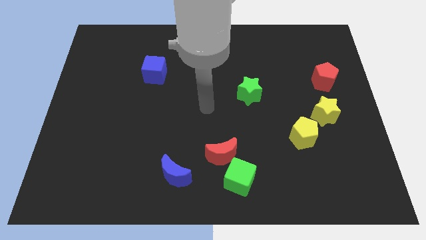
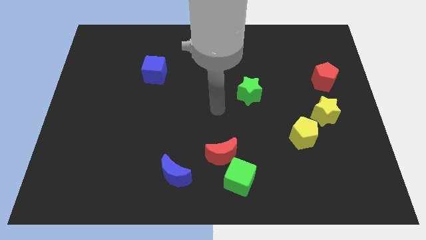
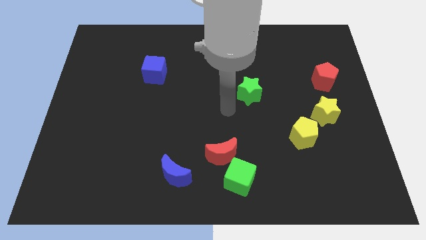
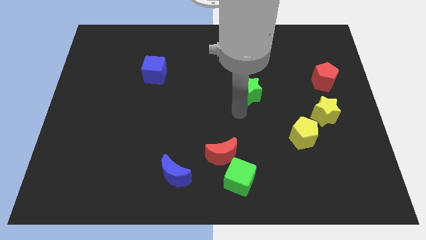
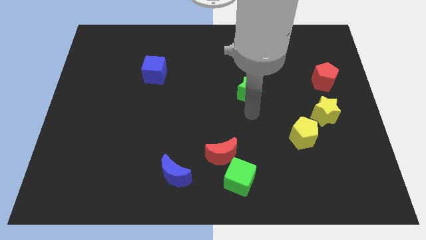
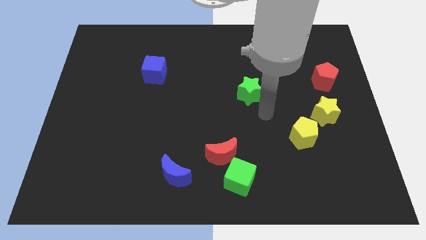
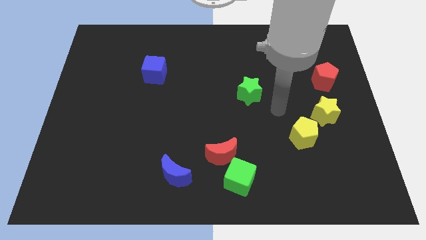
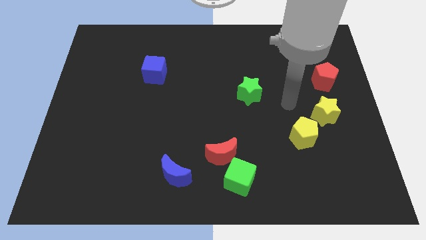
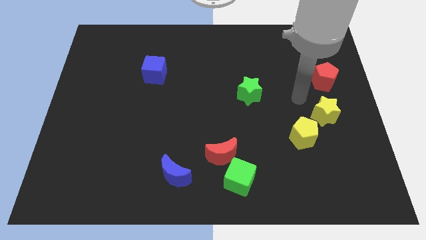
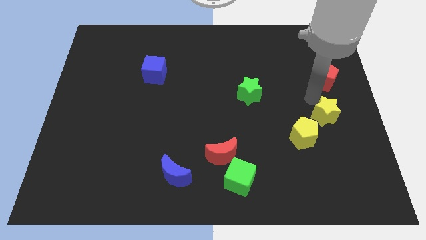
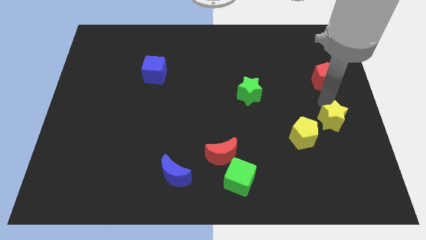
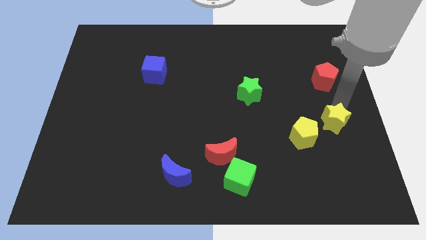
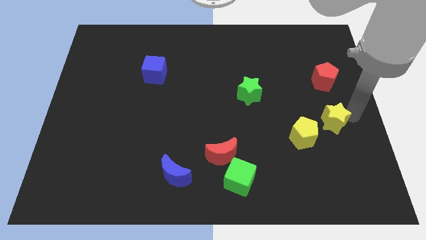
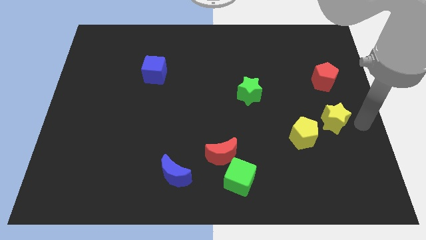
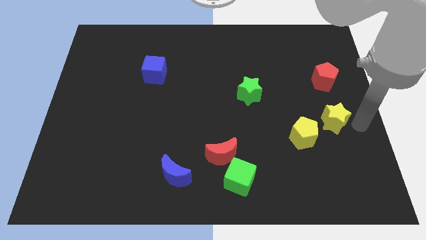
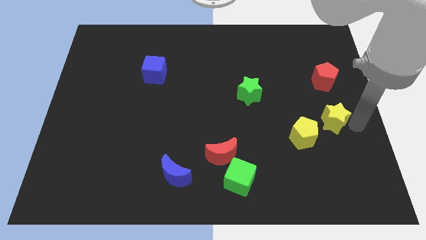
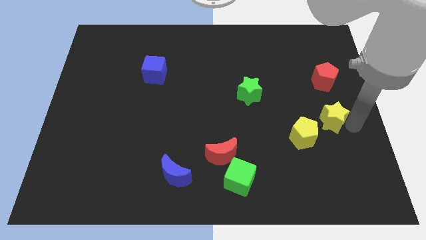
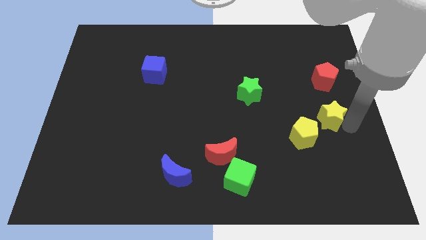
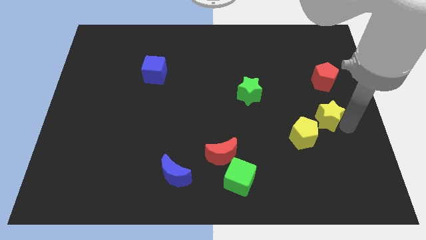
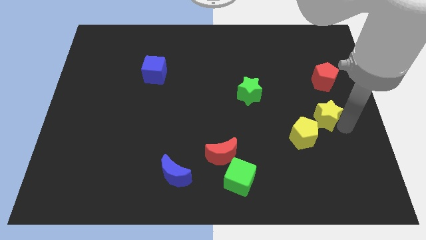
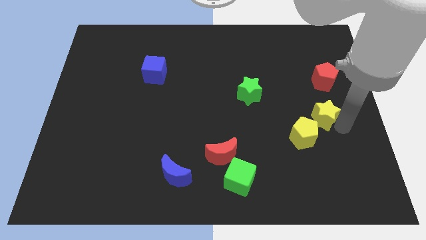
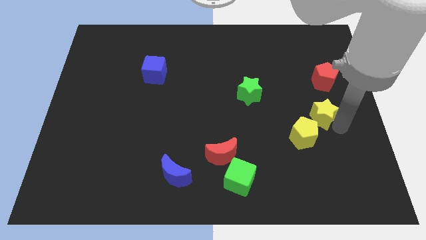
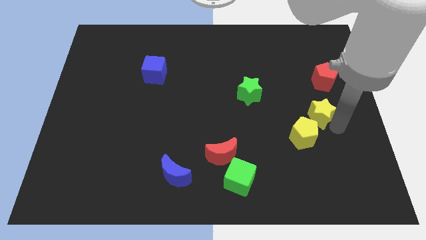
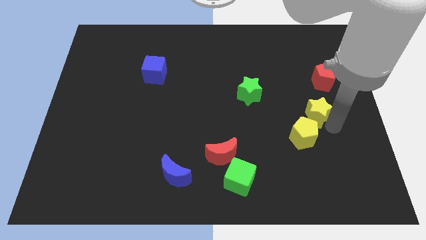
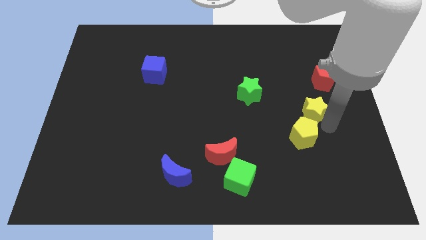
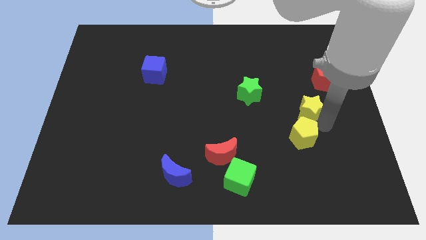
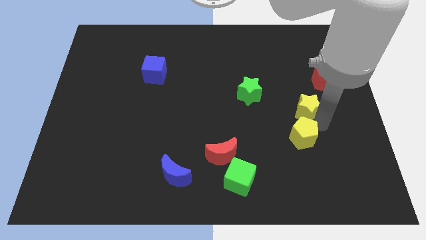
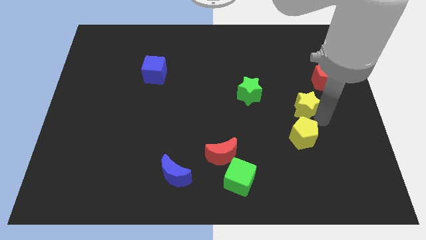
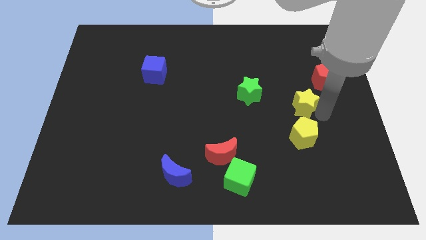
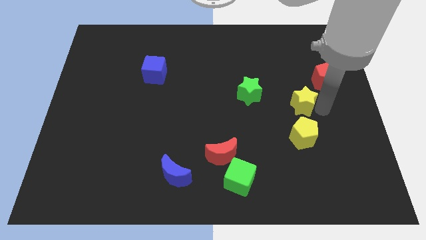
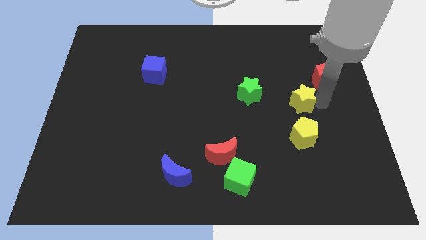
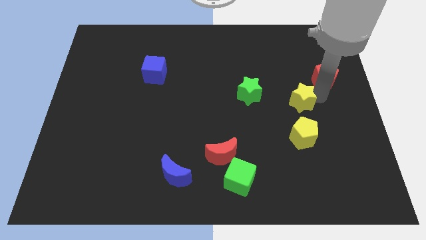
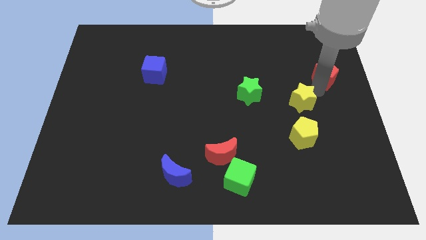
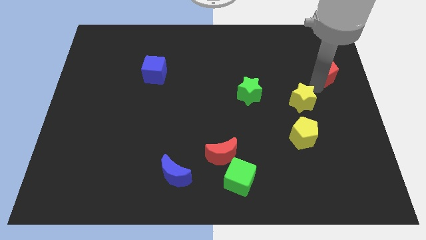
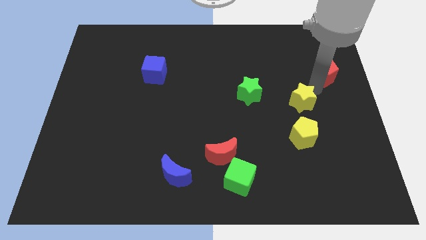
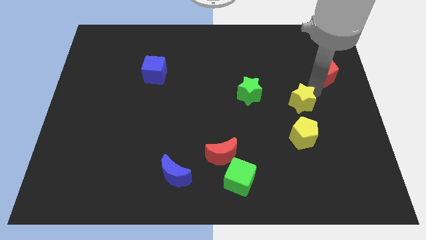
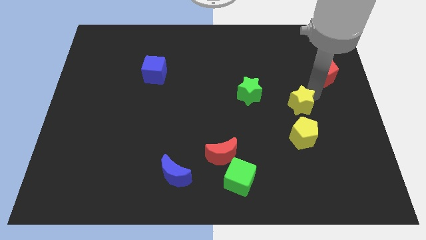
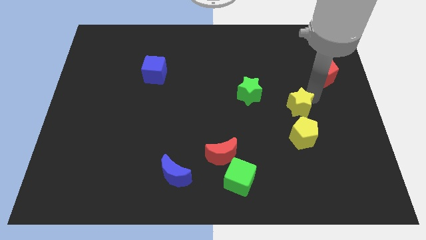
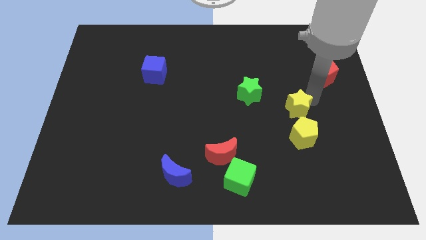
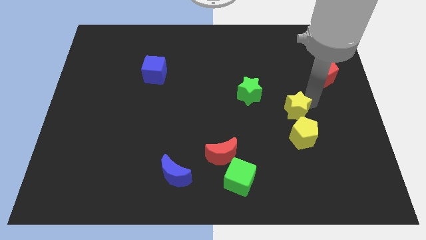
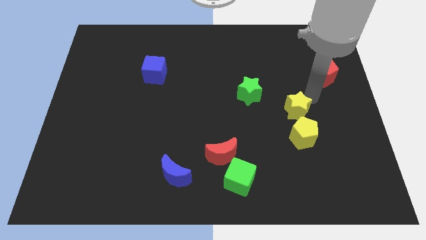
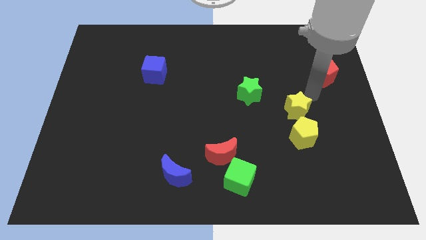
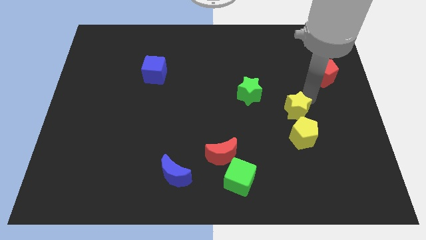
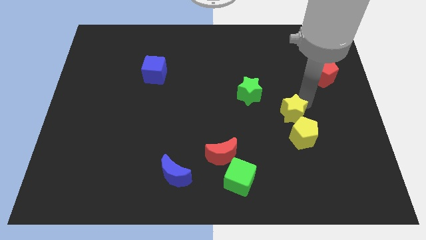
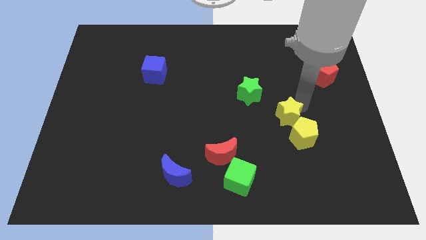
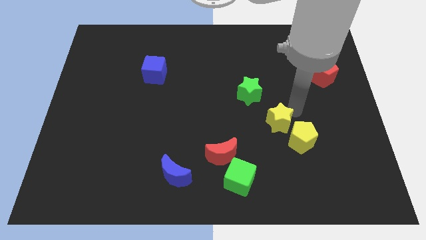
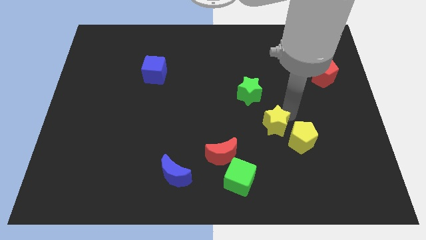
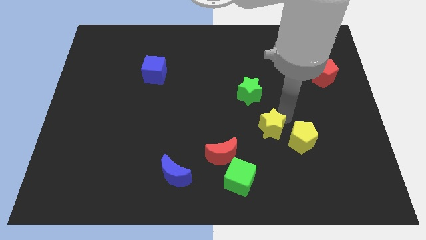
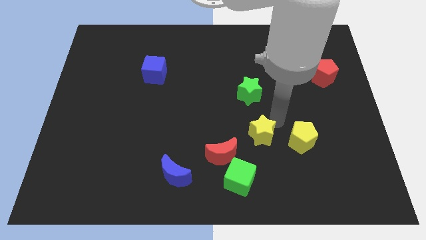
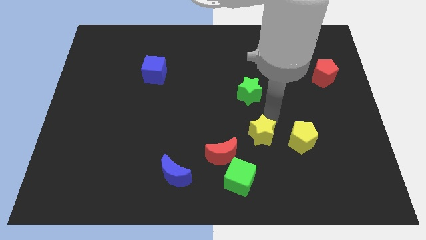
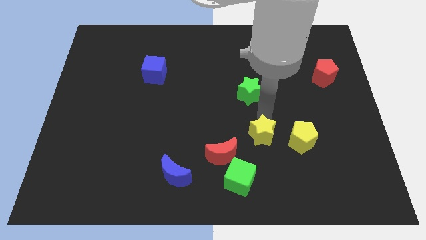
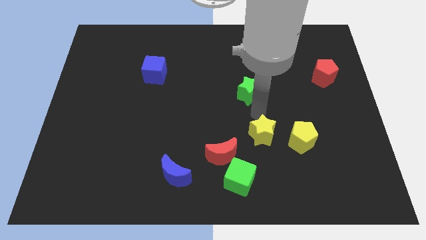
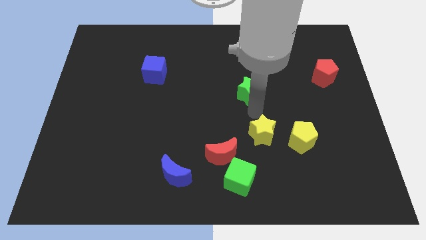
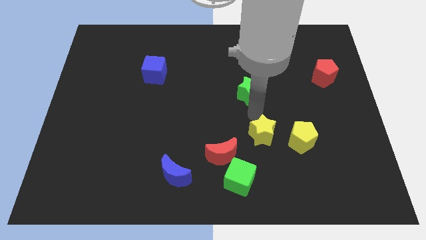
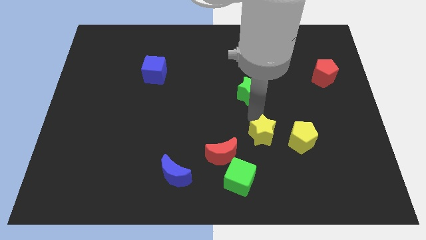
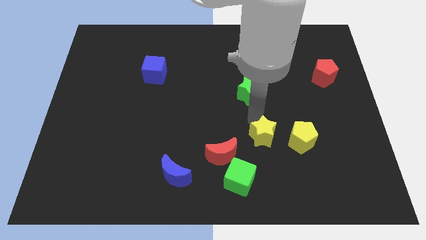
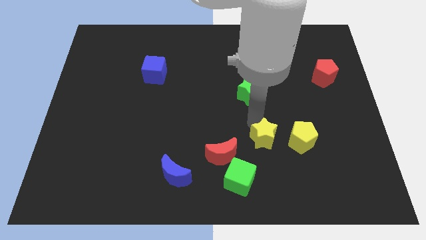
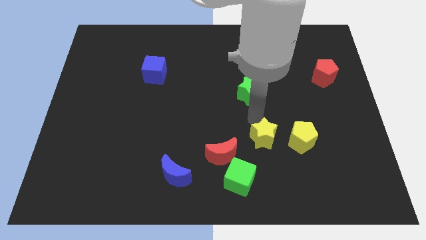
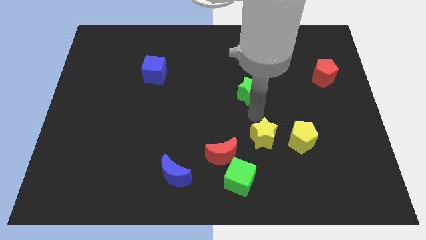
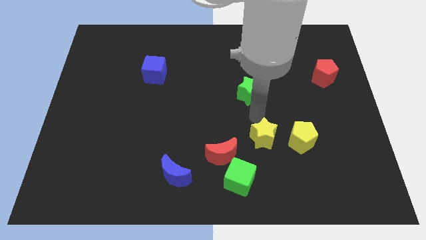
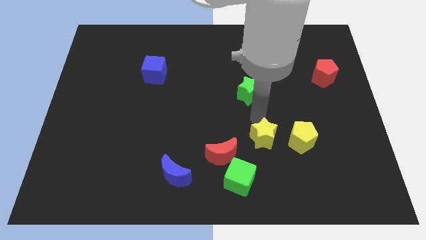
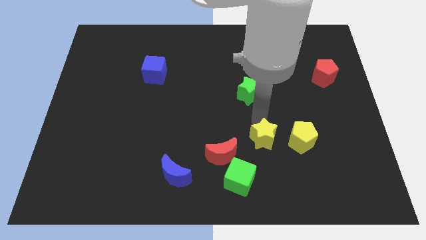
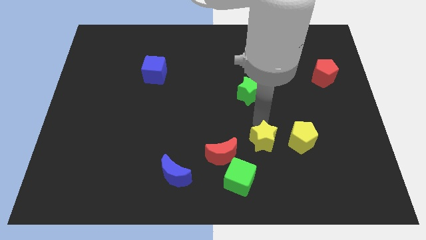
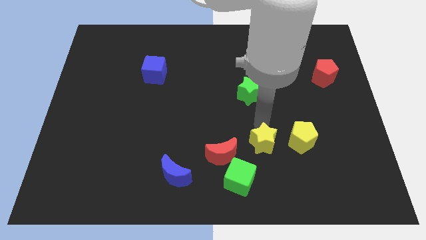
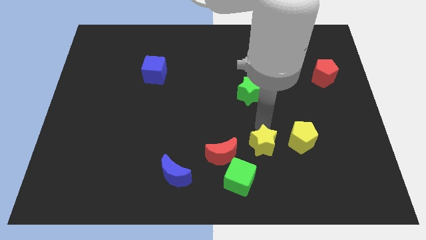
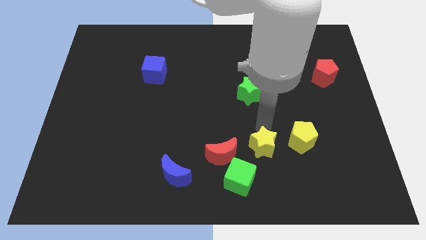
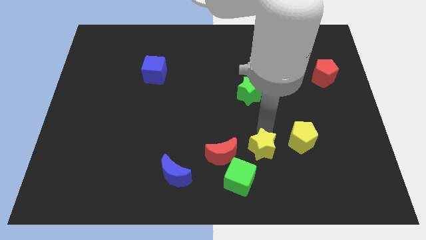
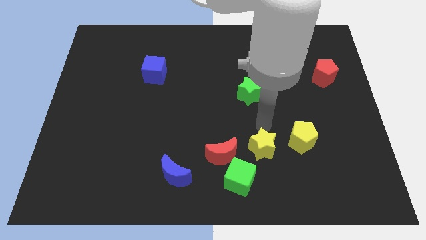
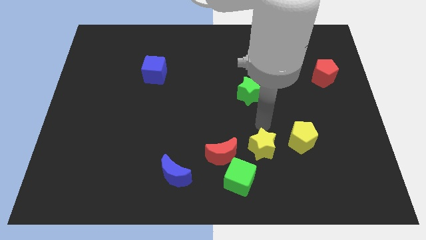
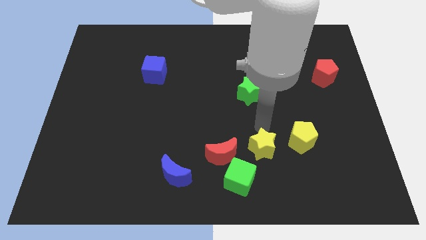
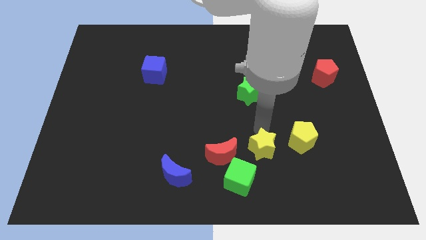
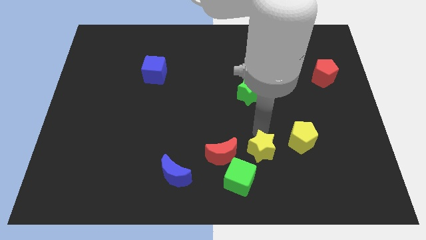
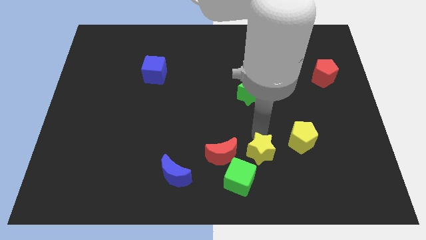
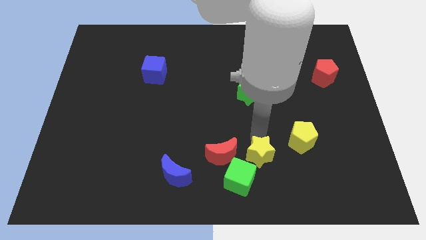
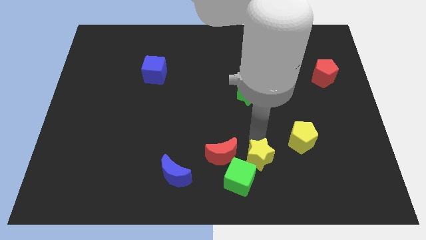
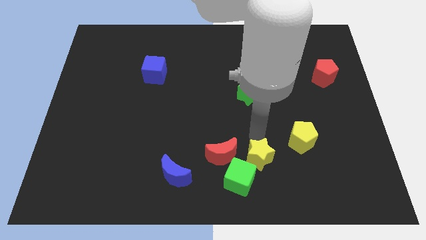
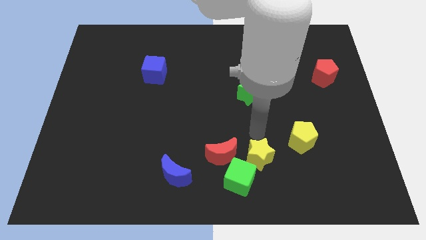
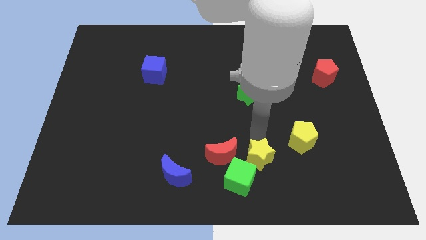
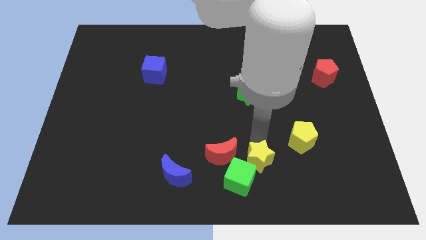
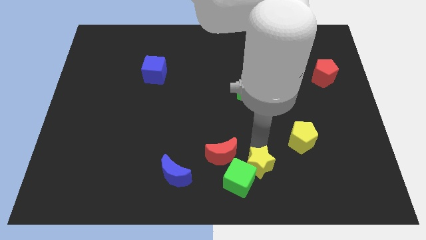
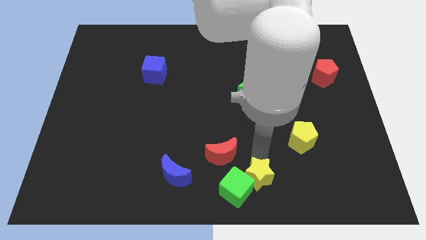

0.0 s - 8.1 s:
push the yellow star to the bottom
